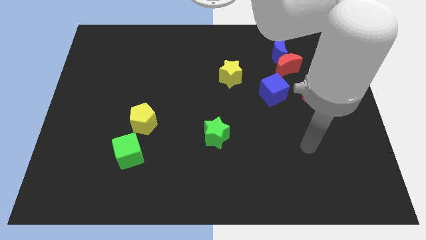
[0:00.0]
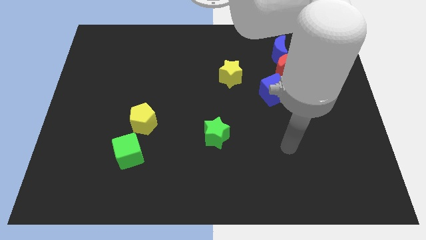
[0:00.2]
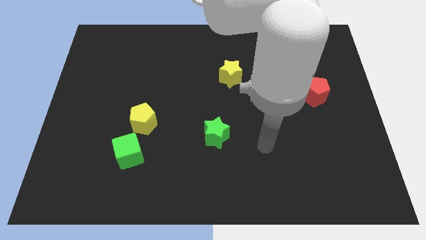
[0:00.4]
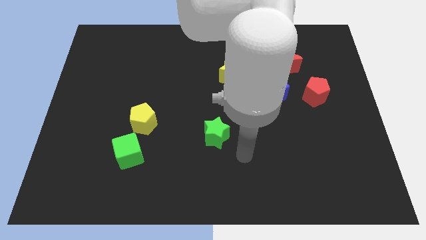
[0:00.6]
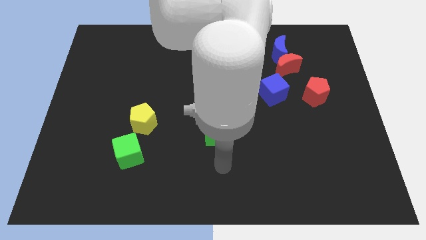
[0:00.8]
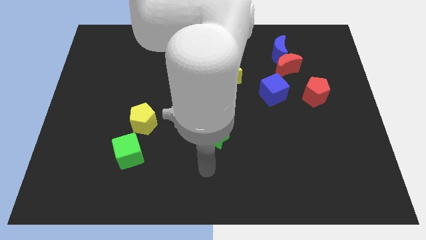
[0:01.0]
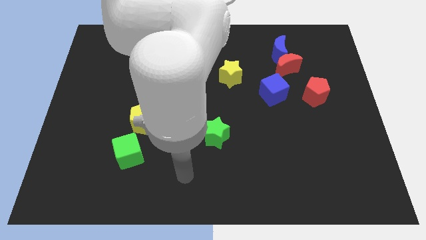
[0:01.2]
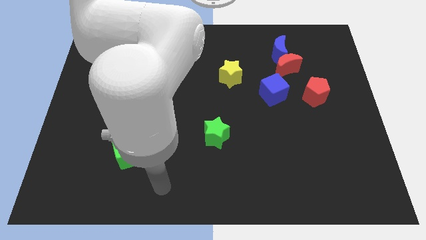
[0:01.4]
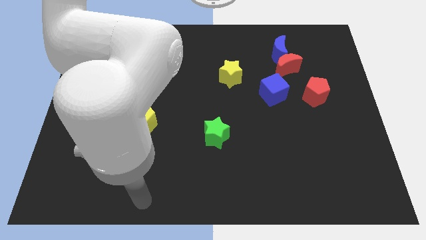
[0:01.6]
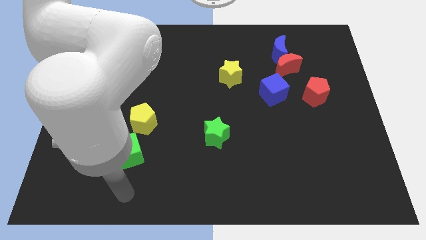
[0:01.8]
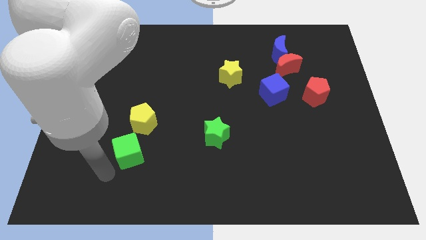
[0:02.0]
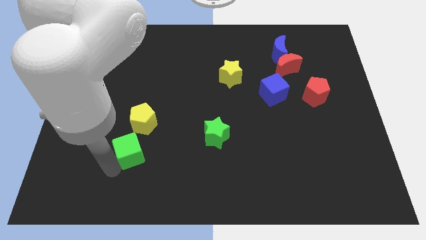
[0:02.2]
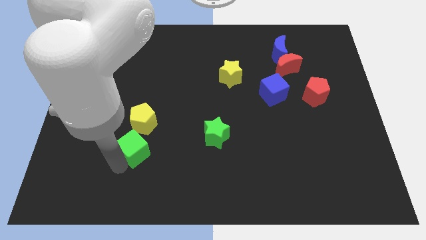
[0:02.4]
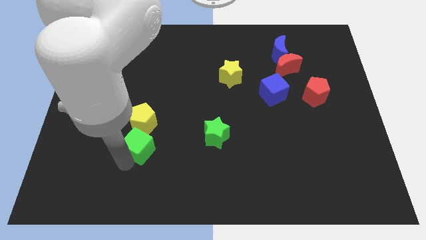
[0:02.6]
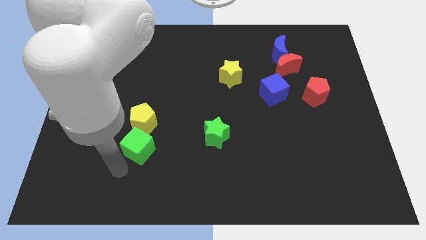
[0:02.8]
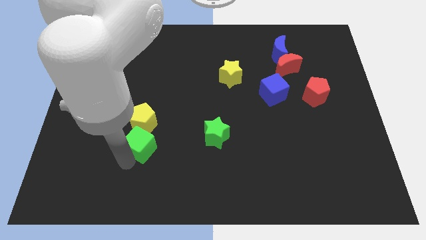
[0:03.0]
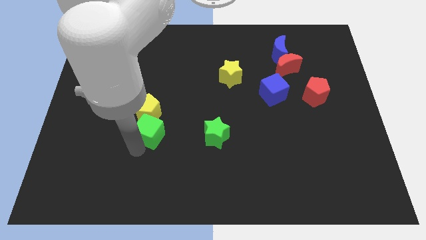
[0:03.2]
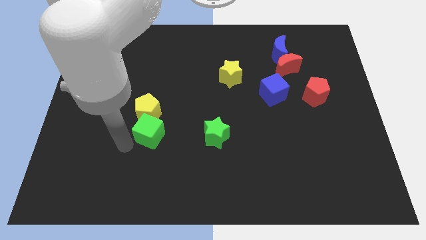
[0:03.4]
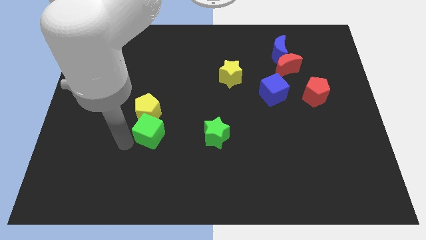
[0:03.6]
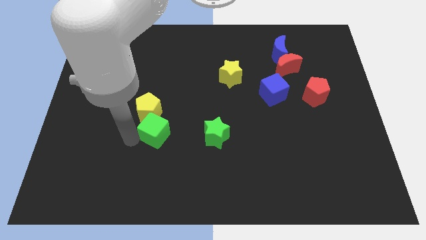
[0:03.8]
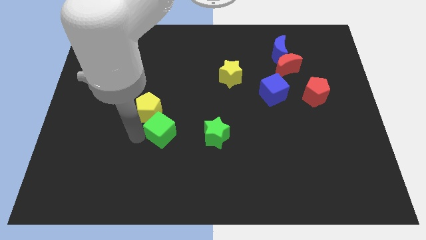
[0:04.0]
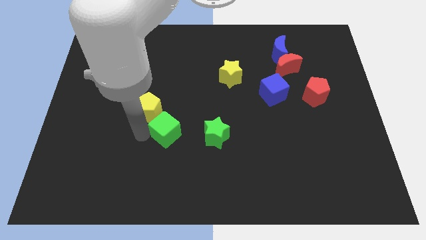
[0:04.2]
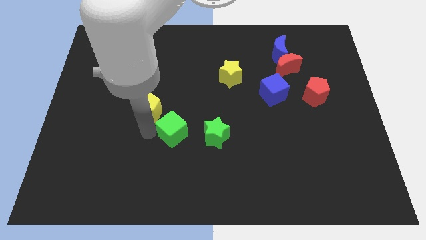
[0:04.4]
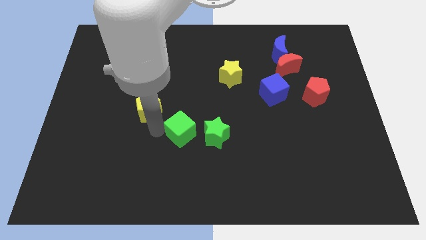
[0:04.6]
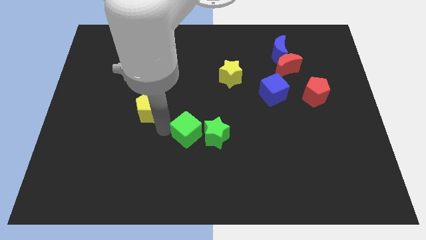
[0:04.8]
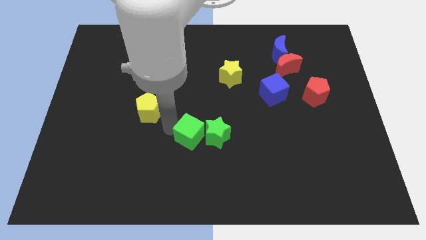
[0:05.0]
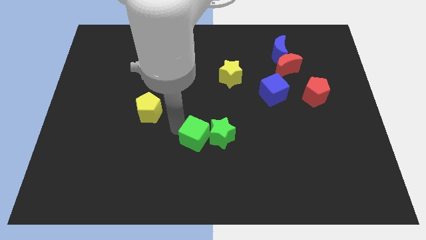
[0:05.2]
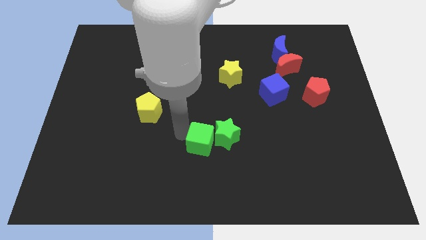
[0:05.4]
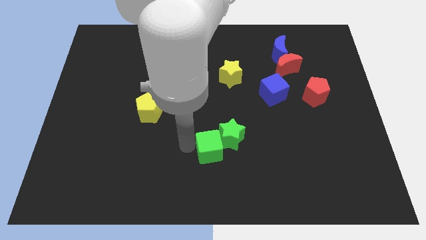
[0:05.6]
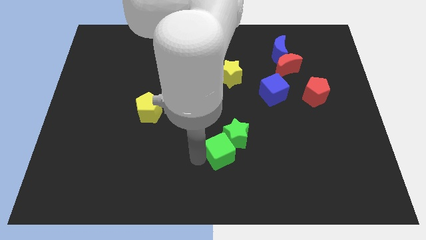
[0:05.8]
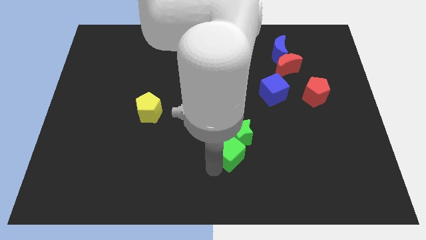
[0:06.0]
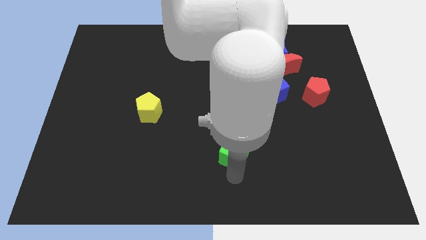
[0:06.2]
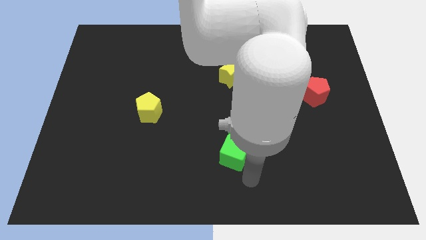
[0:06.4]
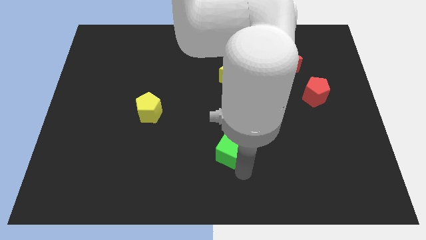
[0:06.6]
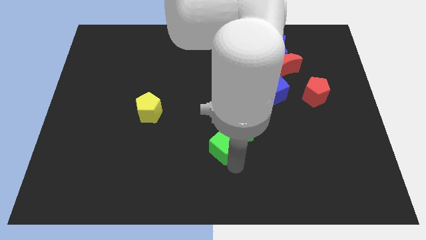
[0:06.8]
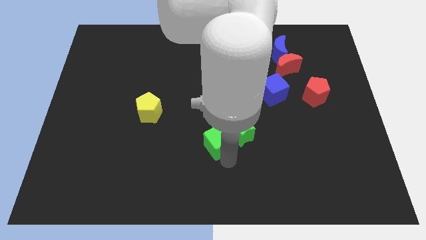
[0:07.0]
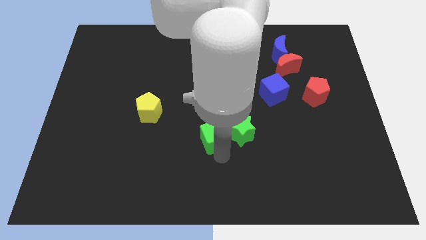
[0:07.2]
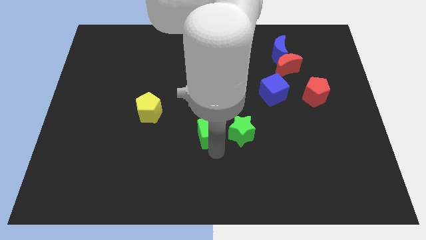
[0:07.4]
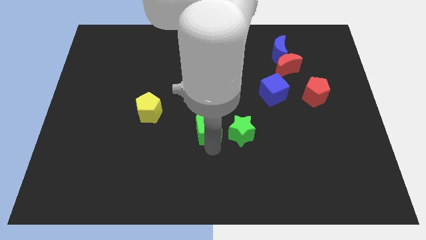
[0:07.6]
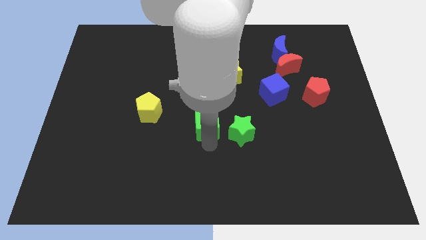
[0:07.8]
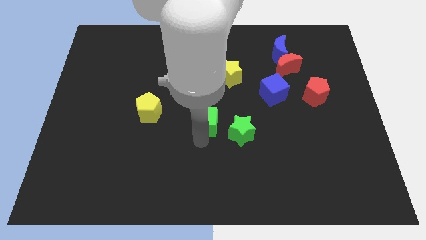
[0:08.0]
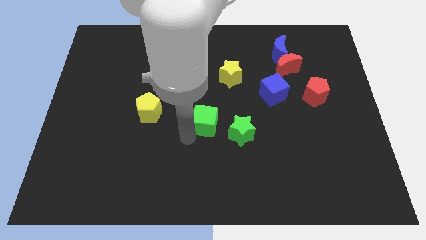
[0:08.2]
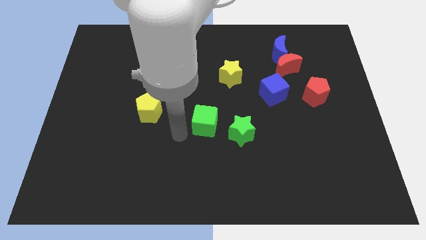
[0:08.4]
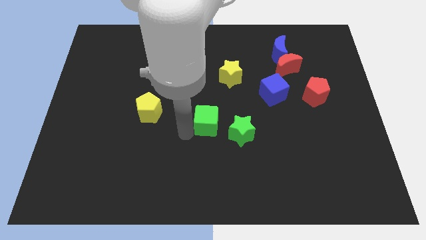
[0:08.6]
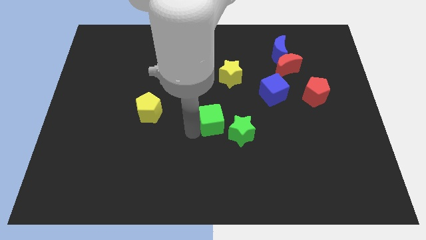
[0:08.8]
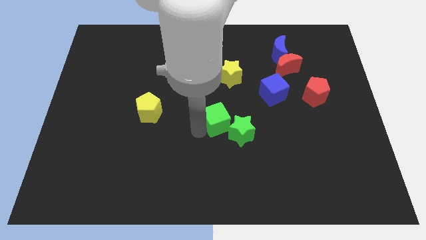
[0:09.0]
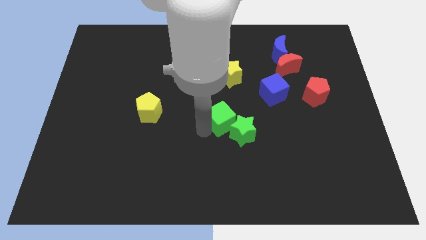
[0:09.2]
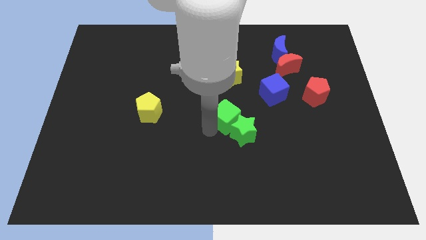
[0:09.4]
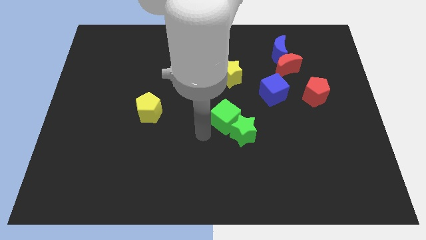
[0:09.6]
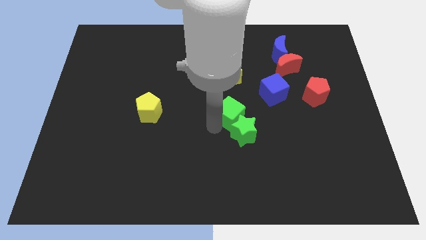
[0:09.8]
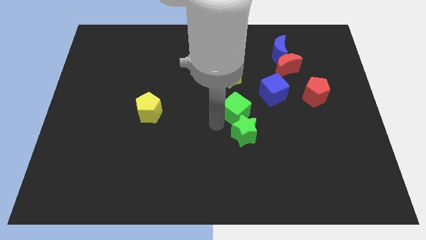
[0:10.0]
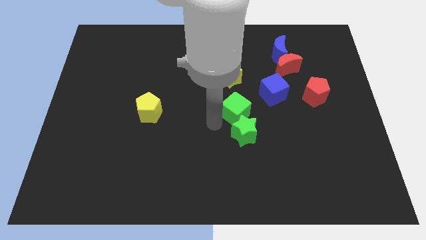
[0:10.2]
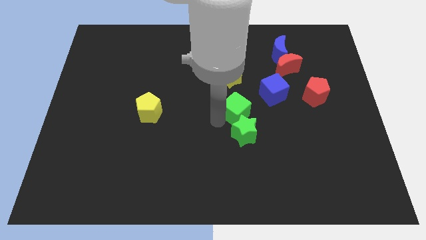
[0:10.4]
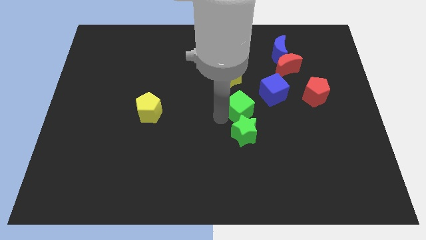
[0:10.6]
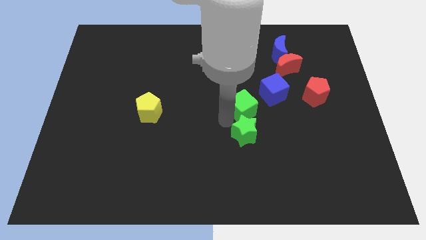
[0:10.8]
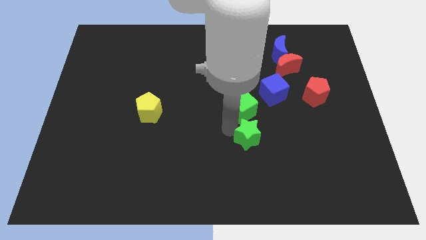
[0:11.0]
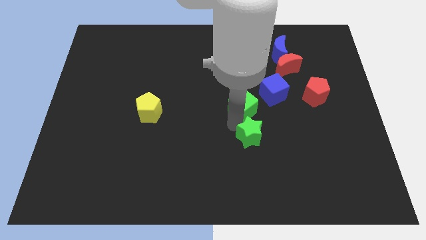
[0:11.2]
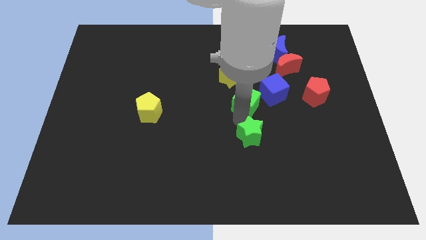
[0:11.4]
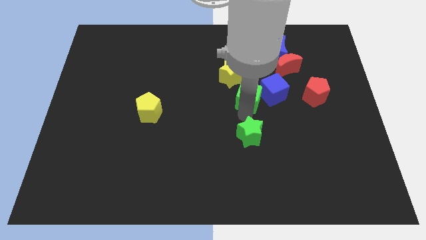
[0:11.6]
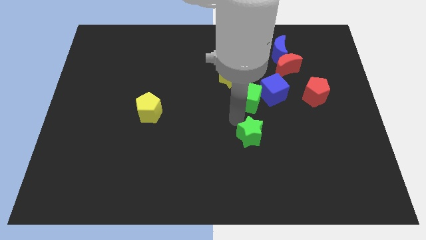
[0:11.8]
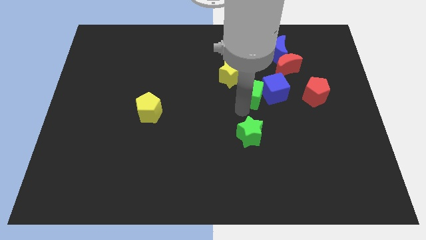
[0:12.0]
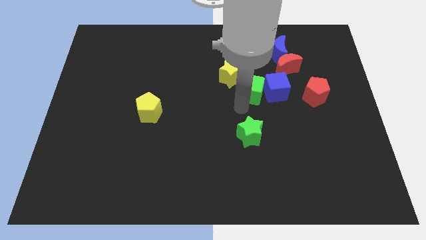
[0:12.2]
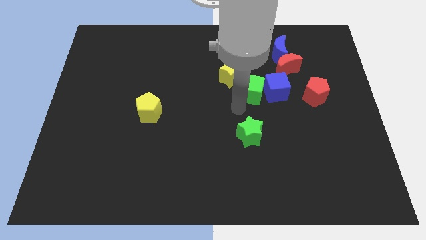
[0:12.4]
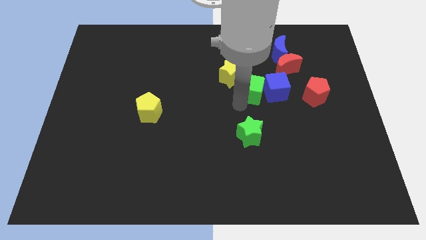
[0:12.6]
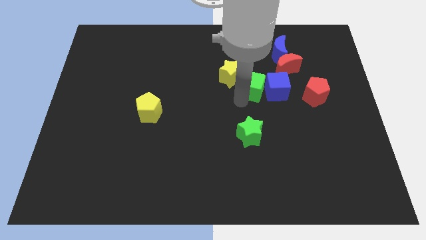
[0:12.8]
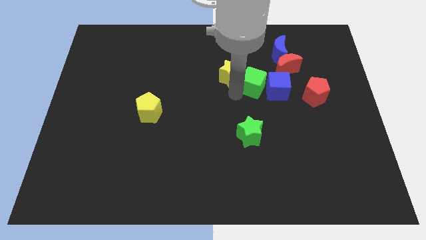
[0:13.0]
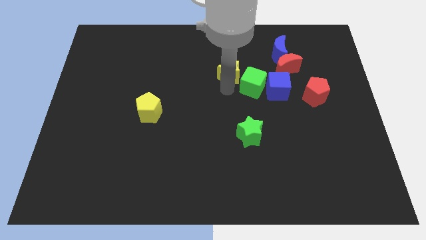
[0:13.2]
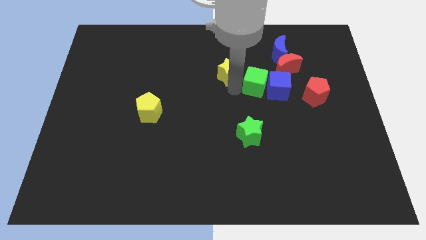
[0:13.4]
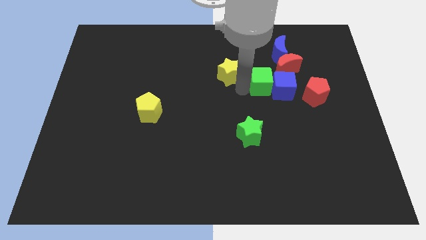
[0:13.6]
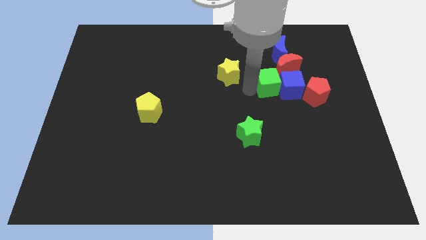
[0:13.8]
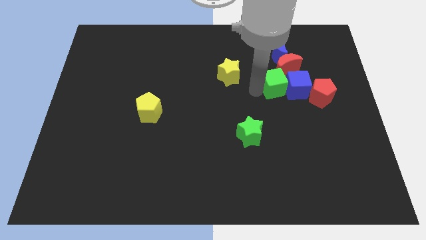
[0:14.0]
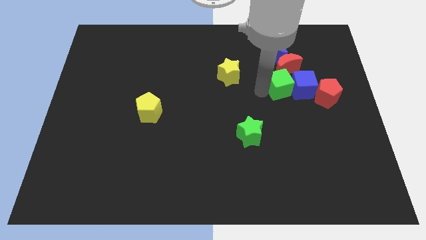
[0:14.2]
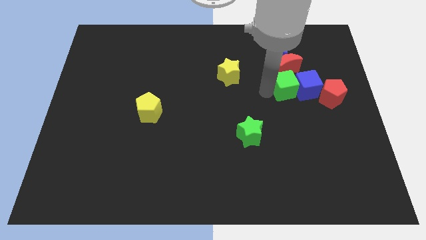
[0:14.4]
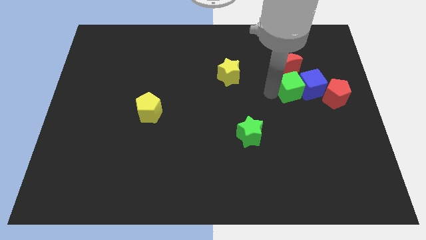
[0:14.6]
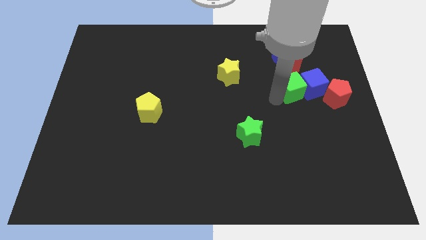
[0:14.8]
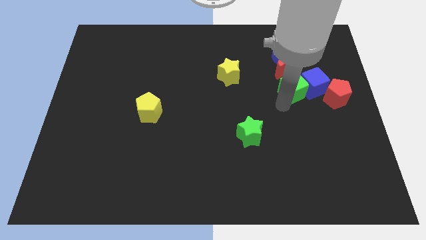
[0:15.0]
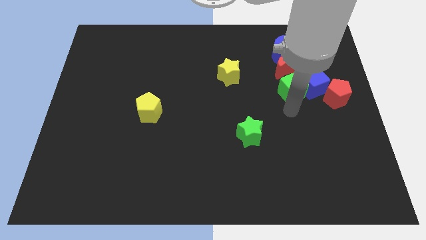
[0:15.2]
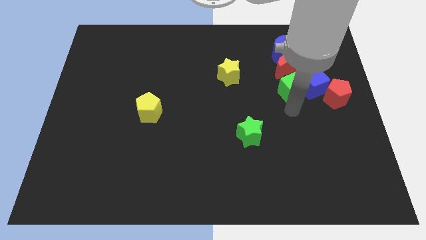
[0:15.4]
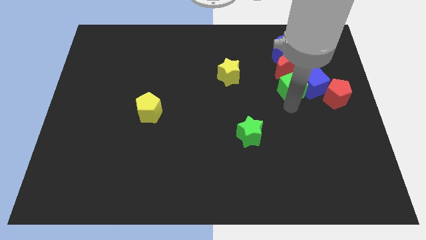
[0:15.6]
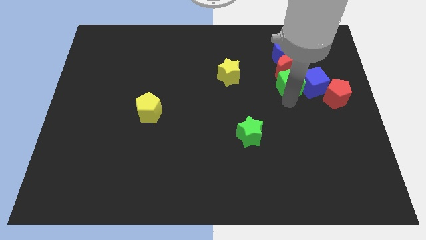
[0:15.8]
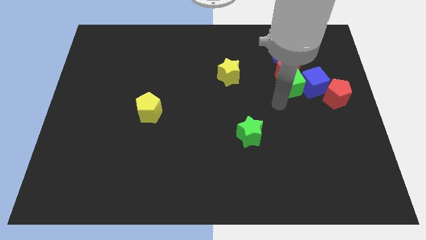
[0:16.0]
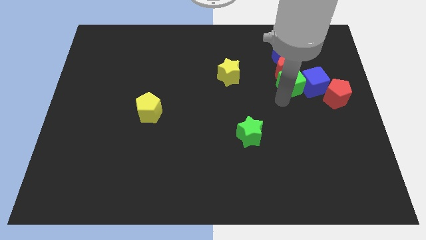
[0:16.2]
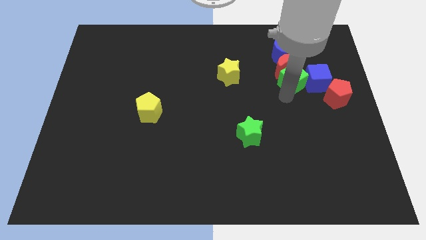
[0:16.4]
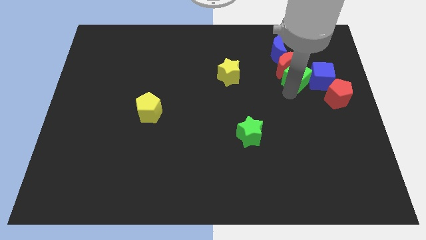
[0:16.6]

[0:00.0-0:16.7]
put the green cube to the bottom right of the blue moon
